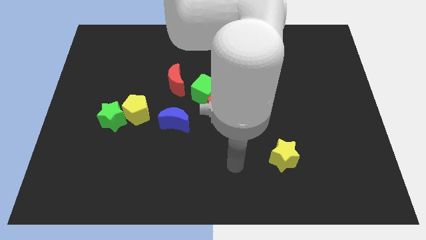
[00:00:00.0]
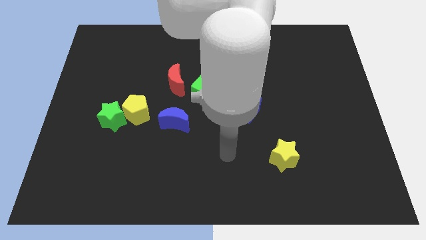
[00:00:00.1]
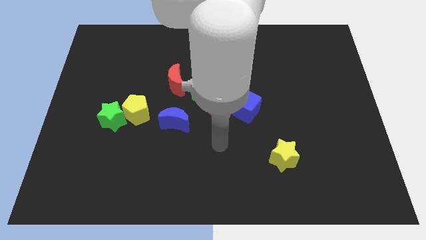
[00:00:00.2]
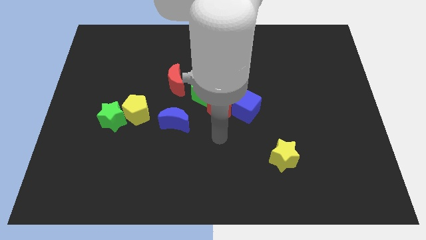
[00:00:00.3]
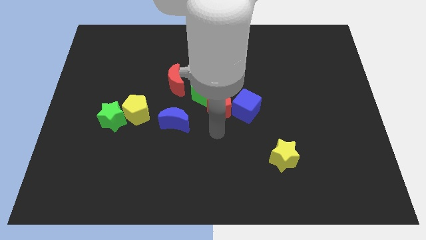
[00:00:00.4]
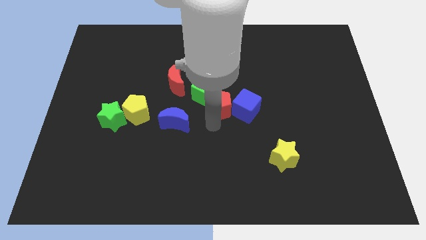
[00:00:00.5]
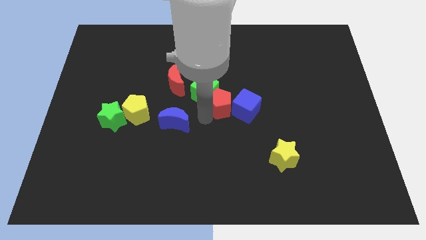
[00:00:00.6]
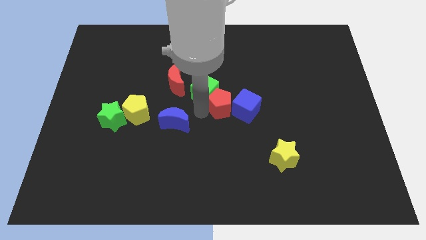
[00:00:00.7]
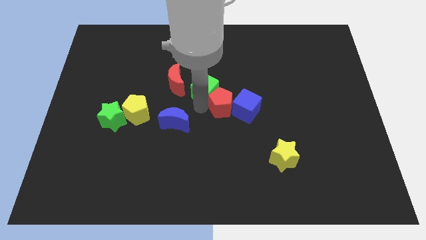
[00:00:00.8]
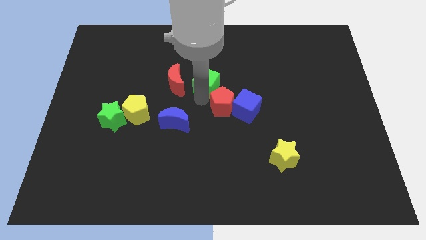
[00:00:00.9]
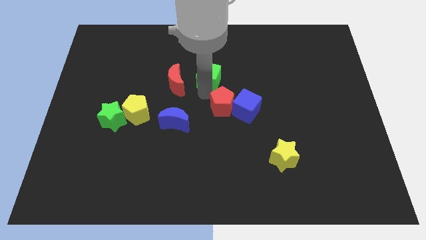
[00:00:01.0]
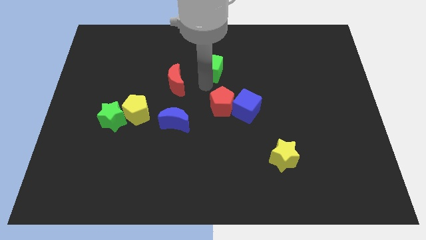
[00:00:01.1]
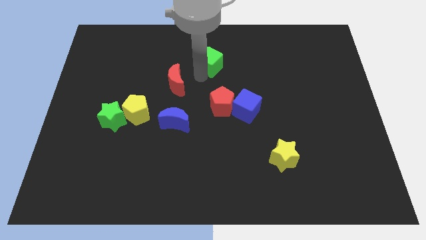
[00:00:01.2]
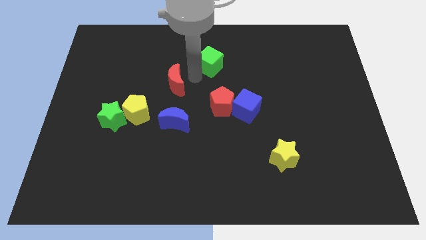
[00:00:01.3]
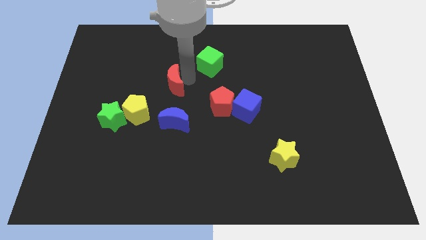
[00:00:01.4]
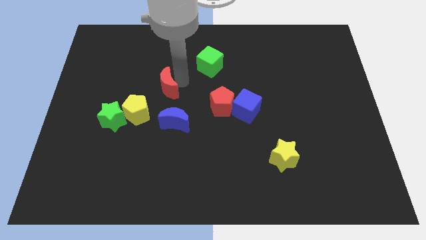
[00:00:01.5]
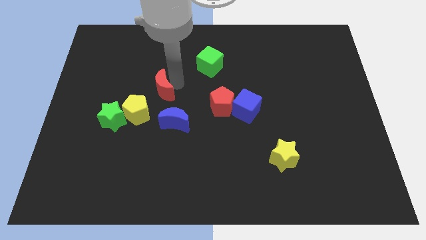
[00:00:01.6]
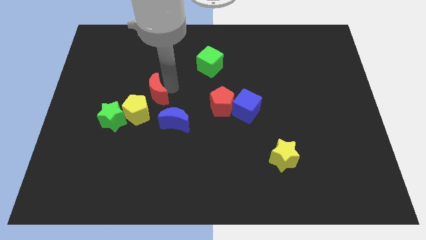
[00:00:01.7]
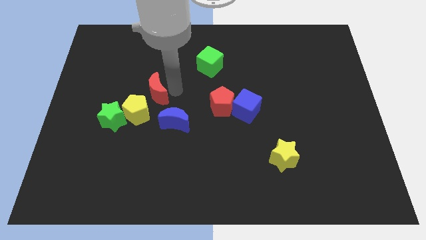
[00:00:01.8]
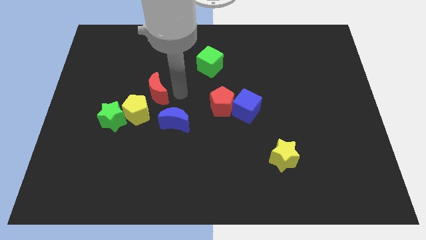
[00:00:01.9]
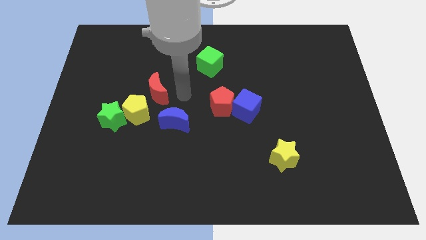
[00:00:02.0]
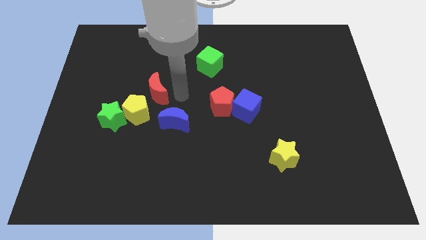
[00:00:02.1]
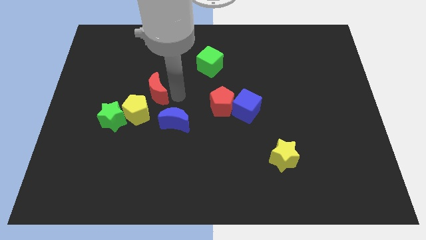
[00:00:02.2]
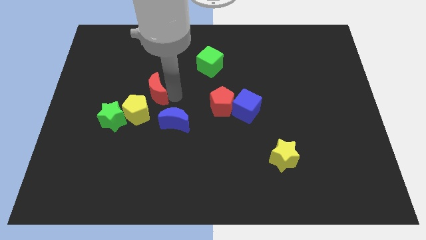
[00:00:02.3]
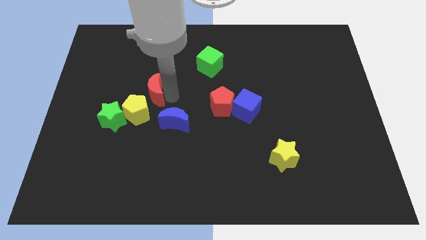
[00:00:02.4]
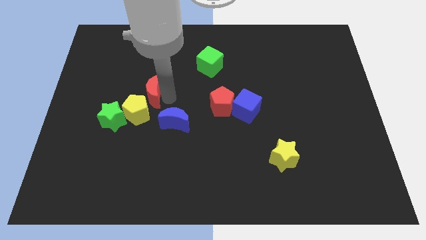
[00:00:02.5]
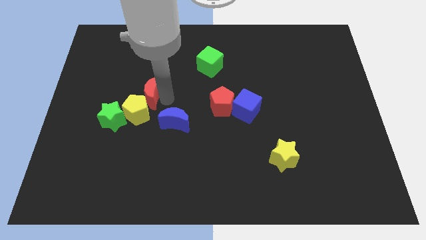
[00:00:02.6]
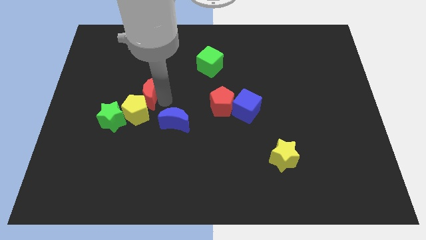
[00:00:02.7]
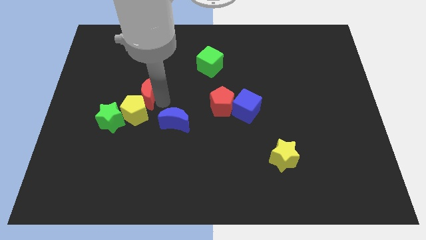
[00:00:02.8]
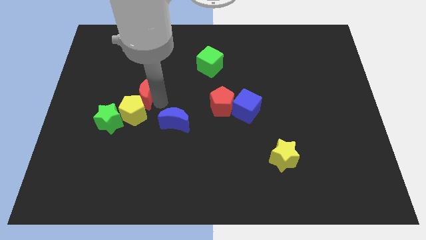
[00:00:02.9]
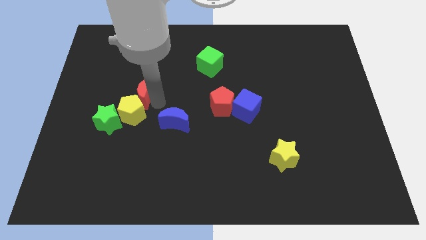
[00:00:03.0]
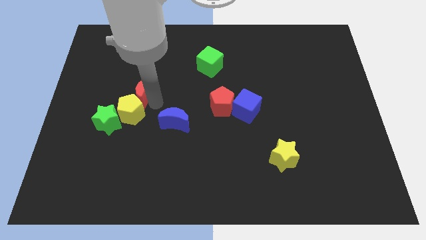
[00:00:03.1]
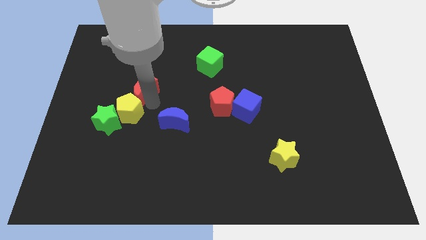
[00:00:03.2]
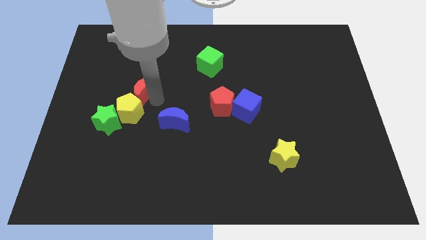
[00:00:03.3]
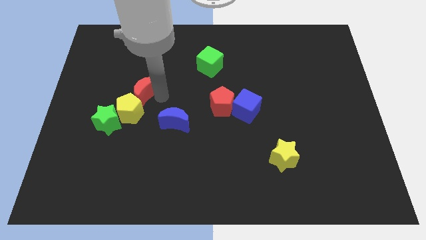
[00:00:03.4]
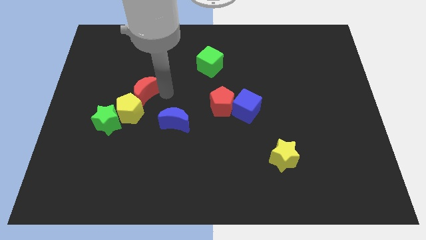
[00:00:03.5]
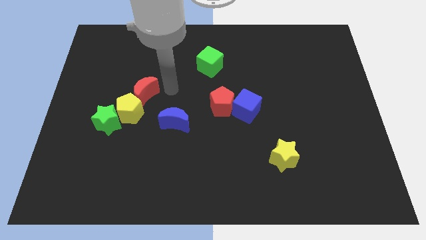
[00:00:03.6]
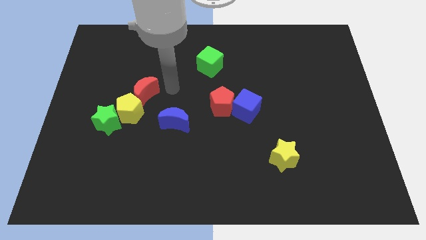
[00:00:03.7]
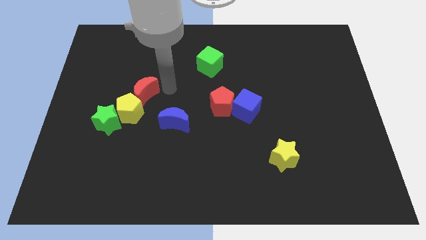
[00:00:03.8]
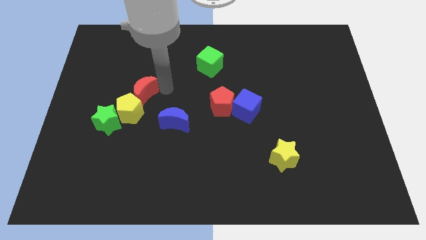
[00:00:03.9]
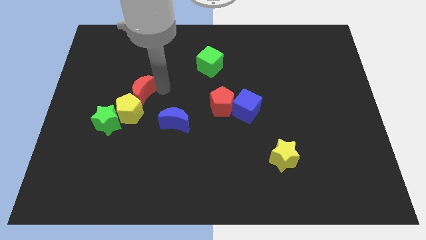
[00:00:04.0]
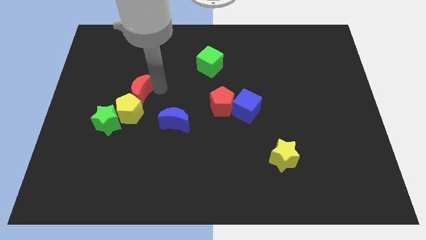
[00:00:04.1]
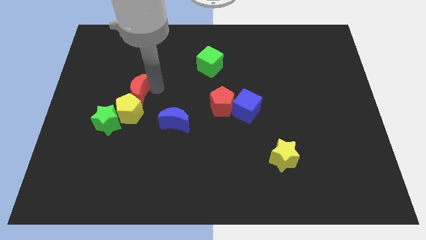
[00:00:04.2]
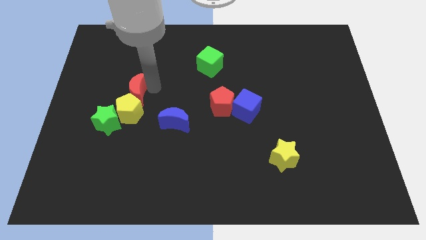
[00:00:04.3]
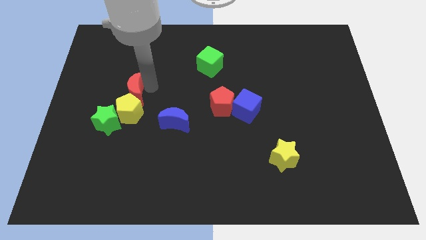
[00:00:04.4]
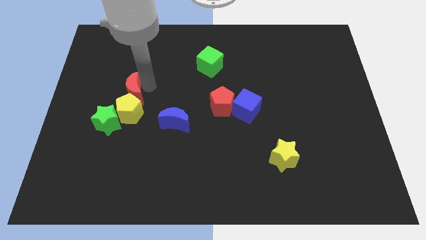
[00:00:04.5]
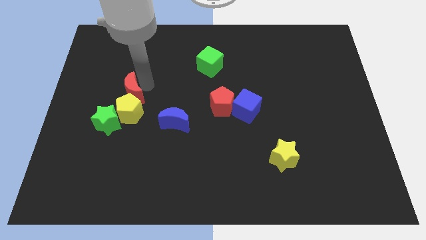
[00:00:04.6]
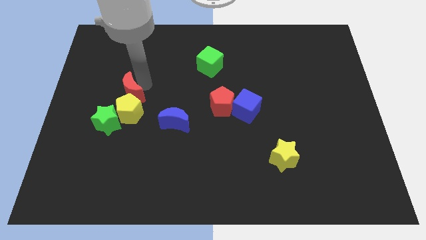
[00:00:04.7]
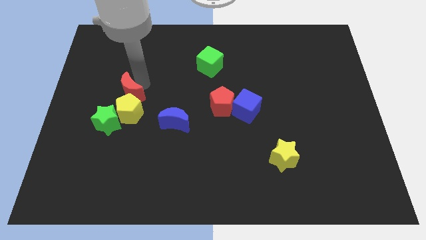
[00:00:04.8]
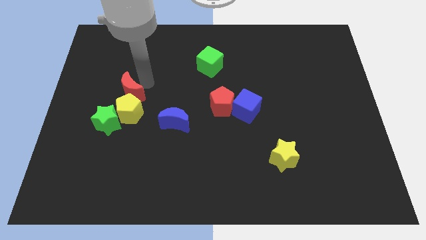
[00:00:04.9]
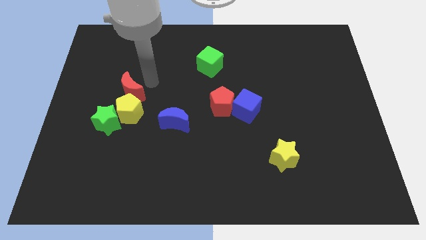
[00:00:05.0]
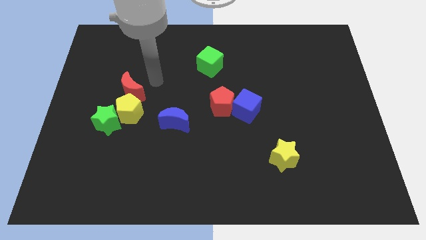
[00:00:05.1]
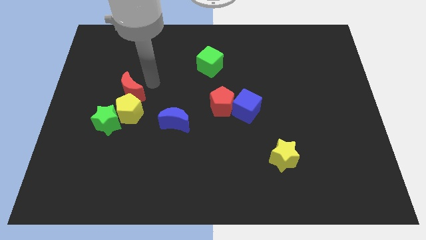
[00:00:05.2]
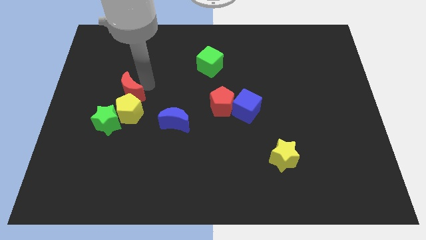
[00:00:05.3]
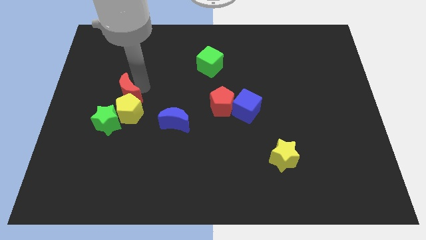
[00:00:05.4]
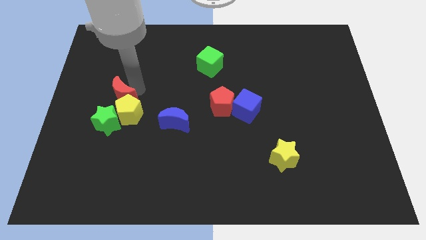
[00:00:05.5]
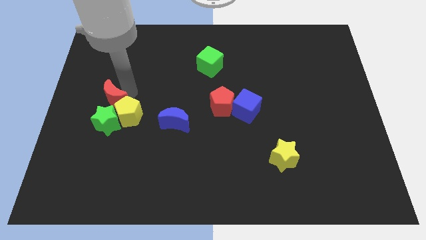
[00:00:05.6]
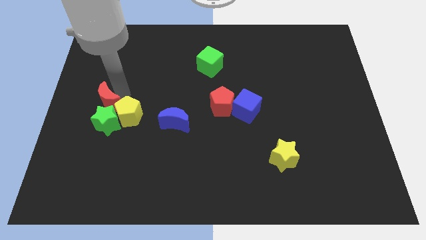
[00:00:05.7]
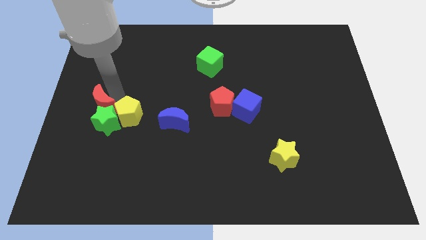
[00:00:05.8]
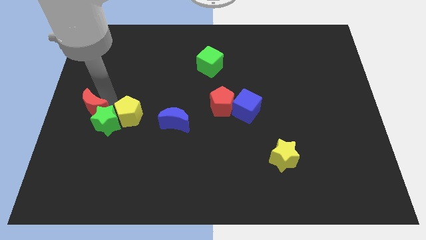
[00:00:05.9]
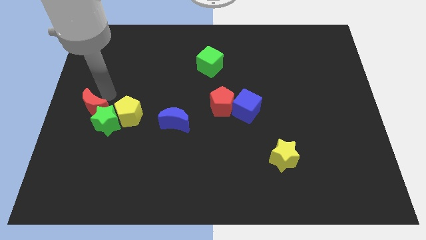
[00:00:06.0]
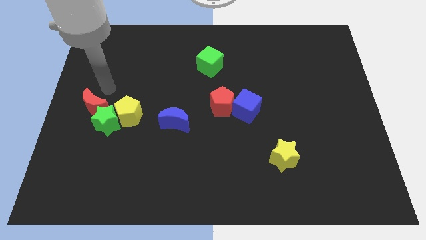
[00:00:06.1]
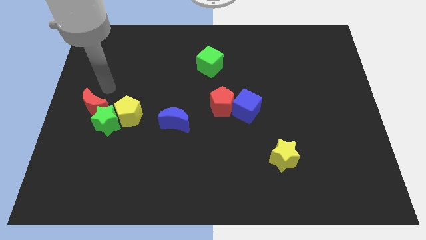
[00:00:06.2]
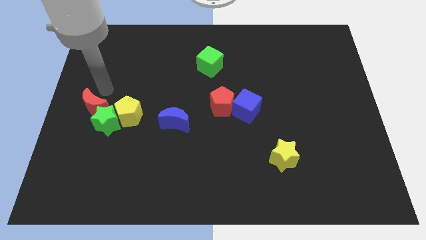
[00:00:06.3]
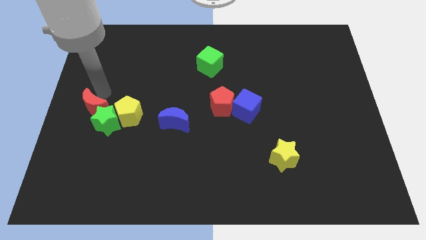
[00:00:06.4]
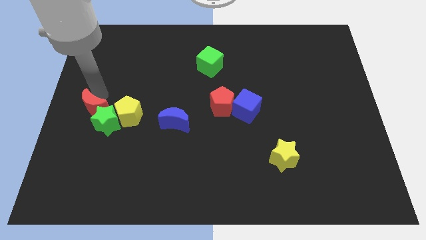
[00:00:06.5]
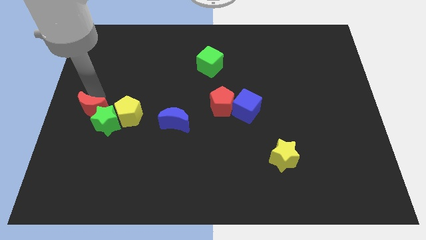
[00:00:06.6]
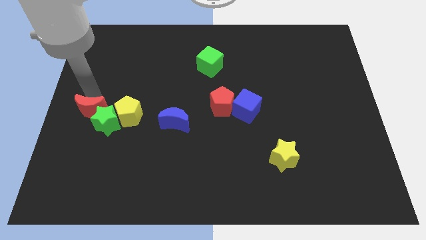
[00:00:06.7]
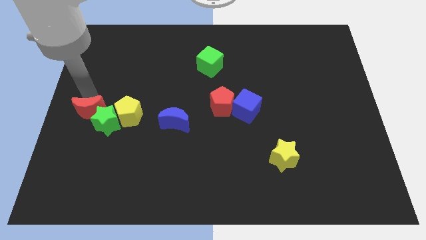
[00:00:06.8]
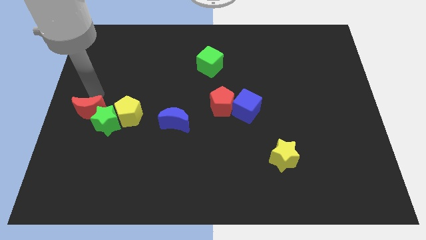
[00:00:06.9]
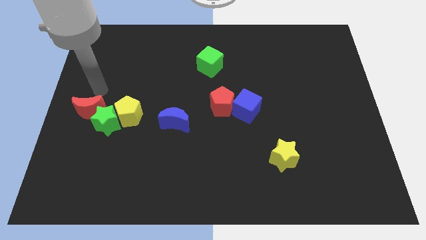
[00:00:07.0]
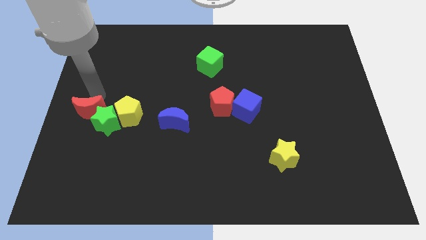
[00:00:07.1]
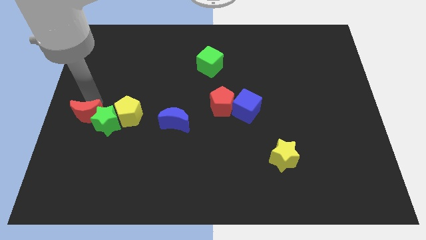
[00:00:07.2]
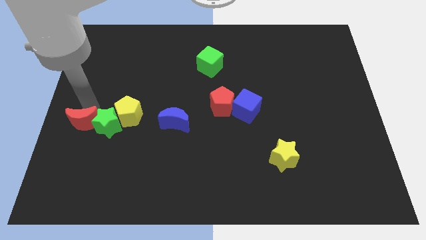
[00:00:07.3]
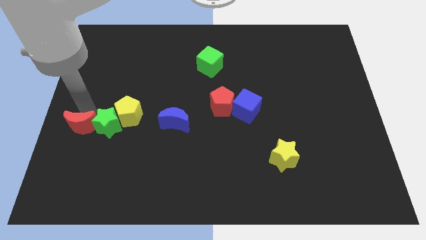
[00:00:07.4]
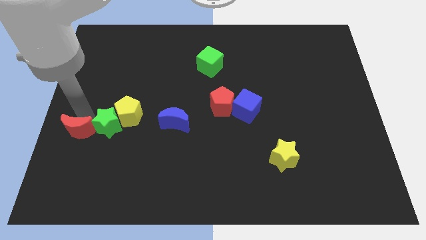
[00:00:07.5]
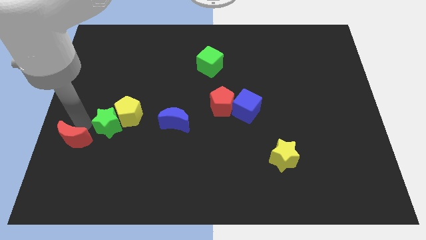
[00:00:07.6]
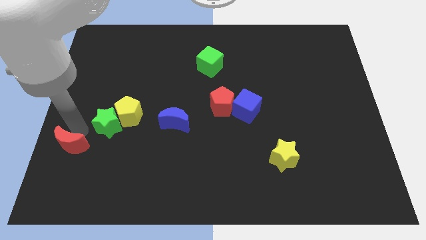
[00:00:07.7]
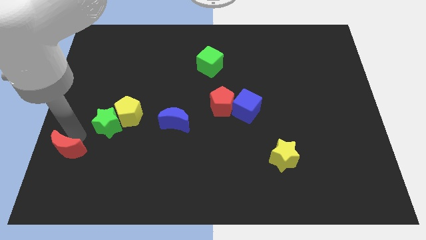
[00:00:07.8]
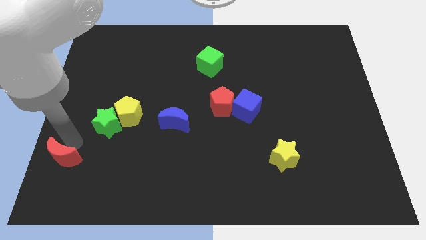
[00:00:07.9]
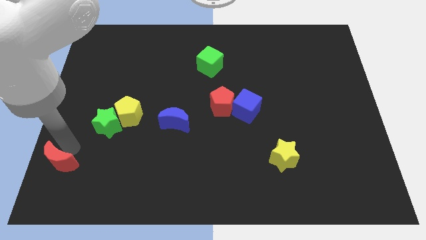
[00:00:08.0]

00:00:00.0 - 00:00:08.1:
move the red moon to the lower left corner
